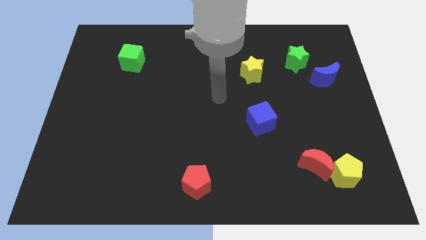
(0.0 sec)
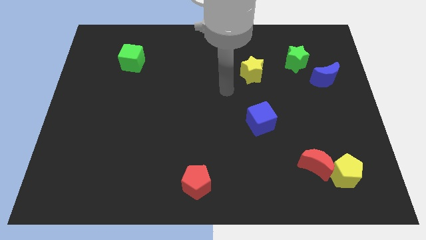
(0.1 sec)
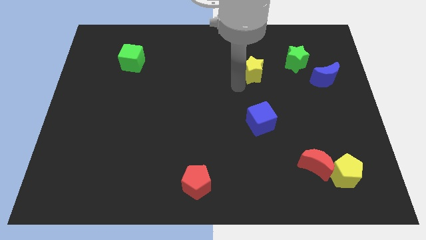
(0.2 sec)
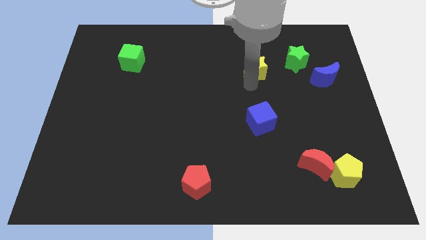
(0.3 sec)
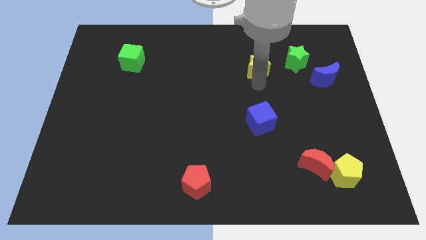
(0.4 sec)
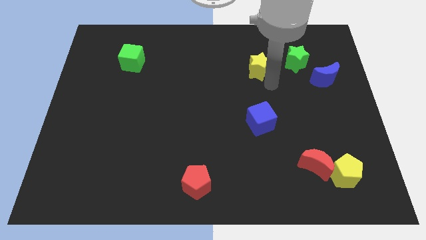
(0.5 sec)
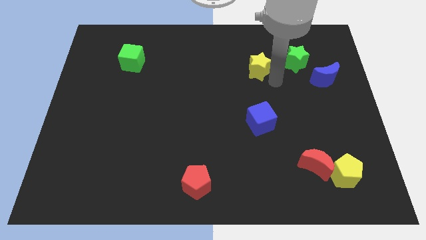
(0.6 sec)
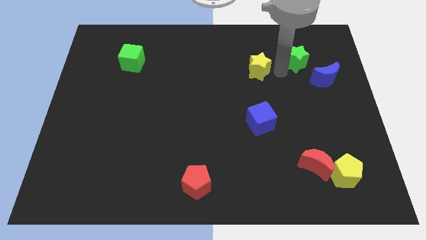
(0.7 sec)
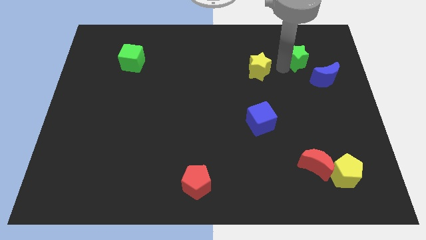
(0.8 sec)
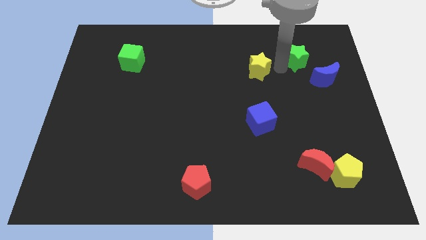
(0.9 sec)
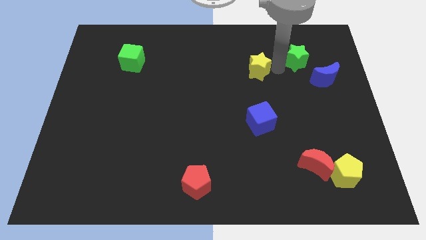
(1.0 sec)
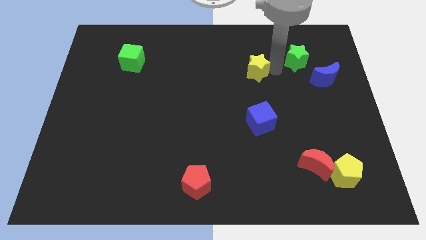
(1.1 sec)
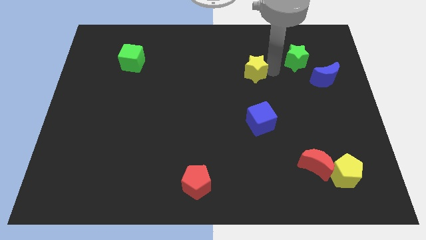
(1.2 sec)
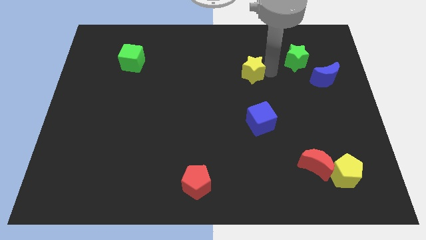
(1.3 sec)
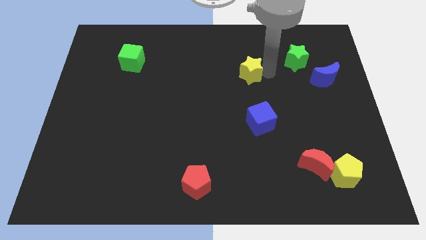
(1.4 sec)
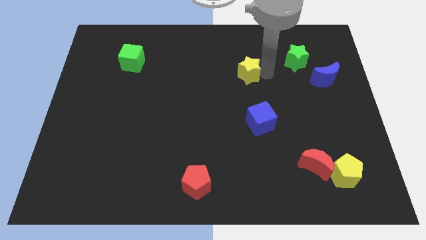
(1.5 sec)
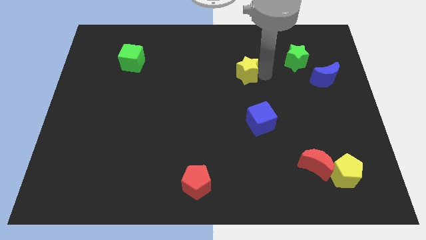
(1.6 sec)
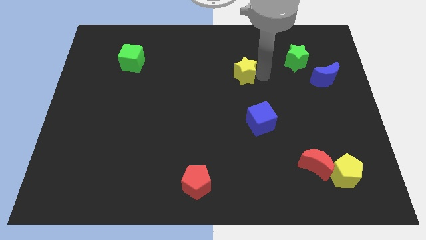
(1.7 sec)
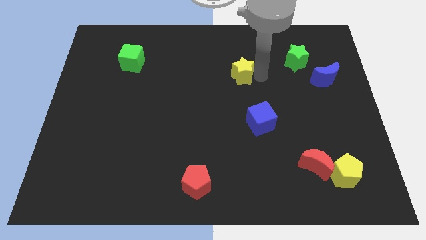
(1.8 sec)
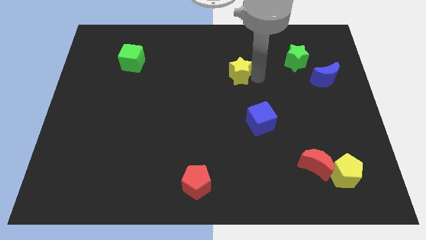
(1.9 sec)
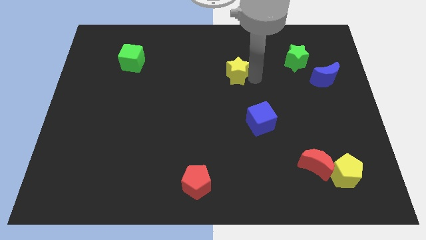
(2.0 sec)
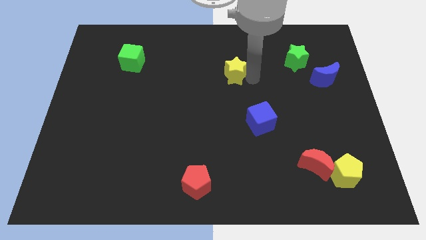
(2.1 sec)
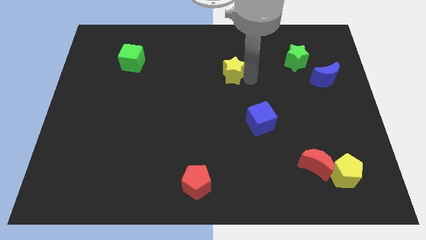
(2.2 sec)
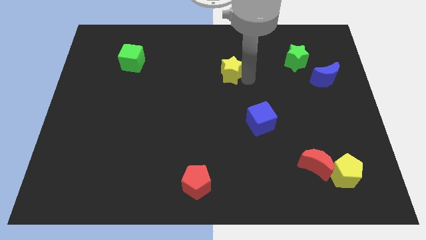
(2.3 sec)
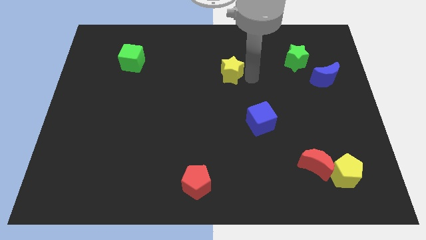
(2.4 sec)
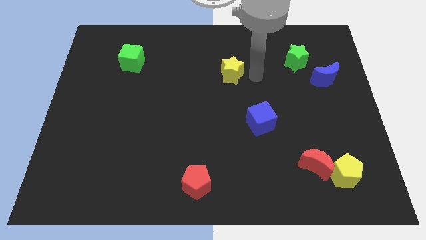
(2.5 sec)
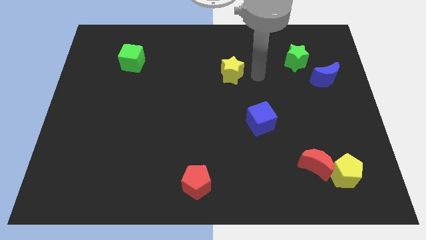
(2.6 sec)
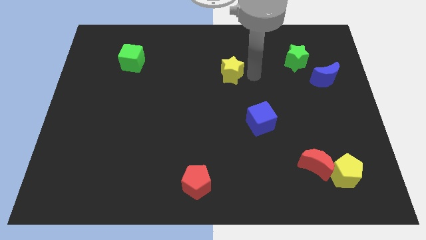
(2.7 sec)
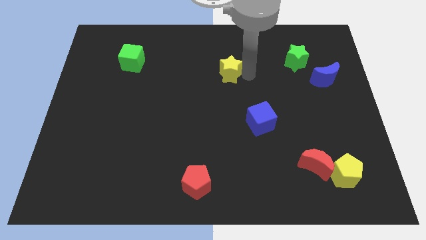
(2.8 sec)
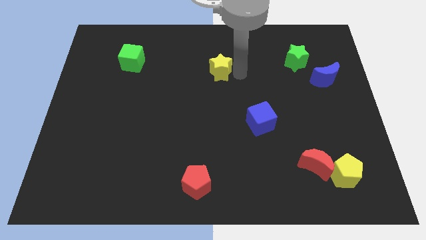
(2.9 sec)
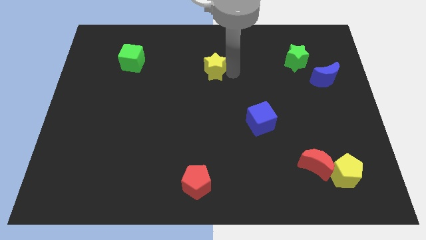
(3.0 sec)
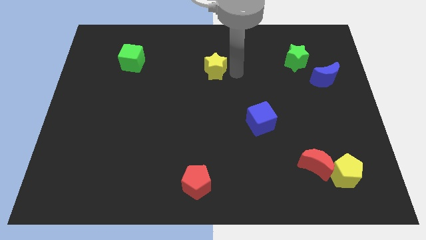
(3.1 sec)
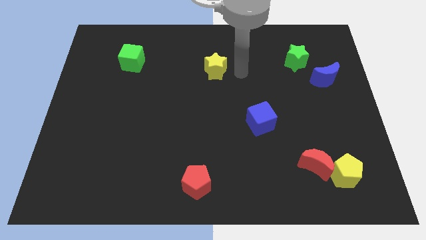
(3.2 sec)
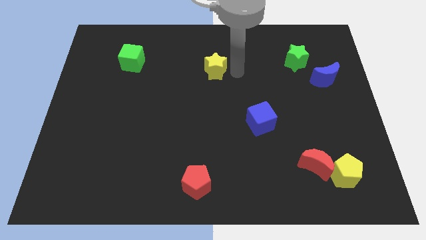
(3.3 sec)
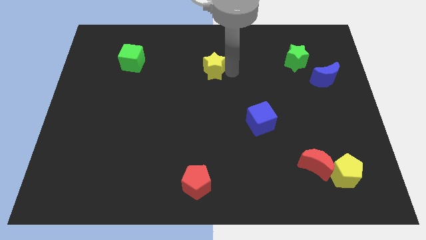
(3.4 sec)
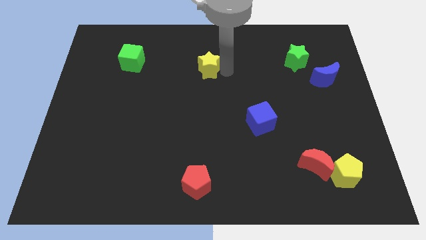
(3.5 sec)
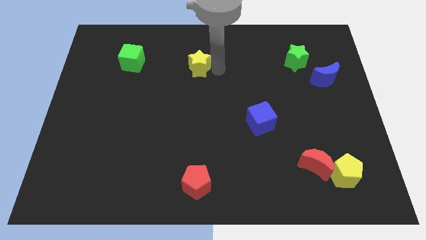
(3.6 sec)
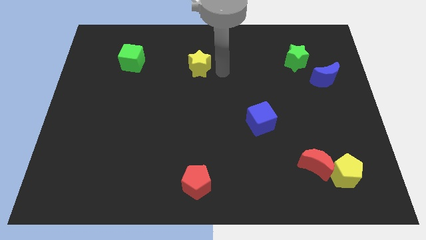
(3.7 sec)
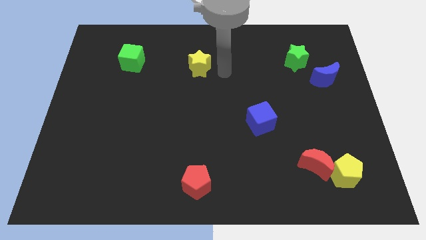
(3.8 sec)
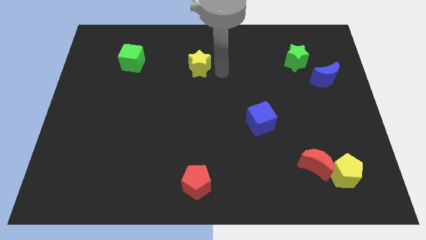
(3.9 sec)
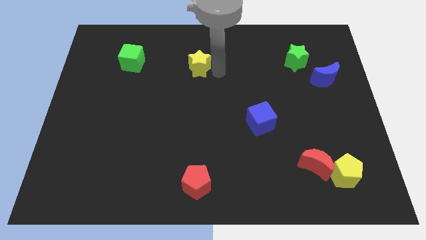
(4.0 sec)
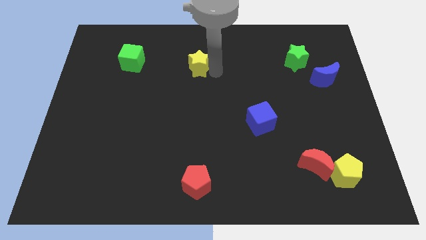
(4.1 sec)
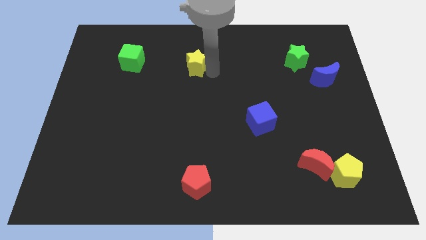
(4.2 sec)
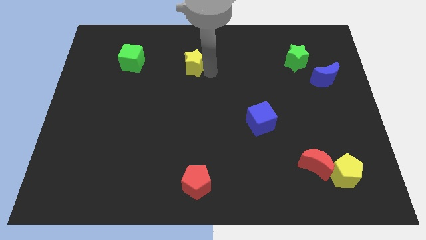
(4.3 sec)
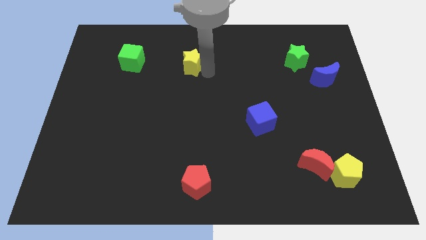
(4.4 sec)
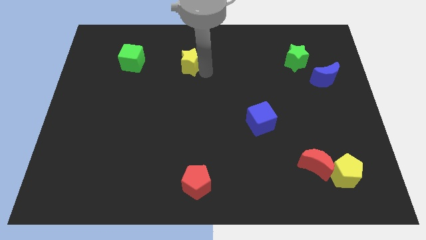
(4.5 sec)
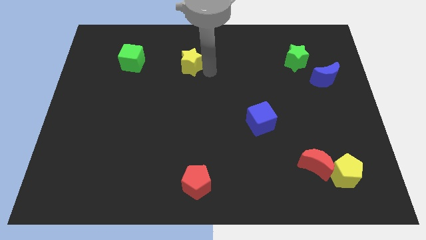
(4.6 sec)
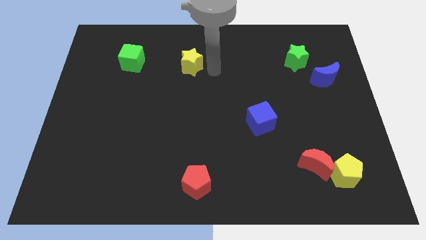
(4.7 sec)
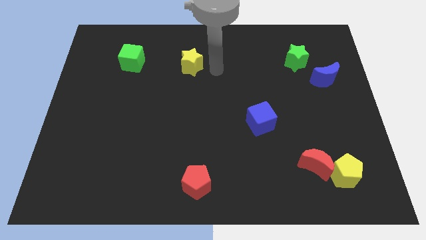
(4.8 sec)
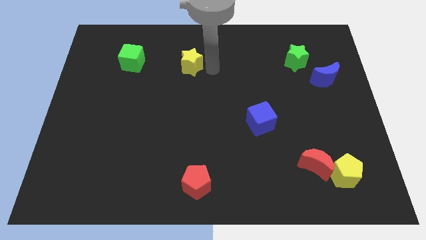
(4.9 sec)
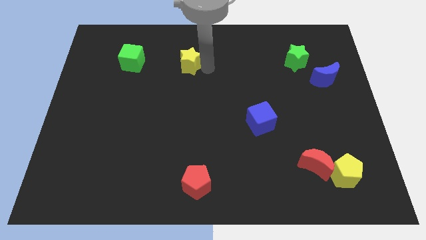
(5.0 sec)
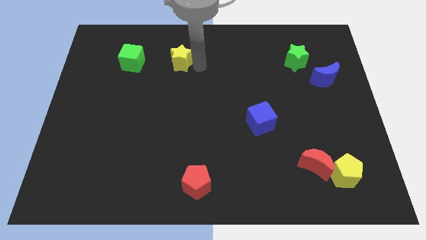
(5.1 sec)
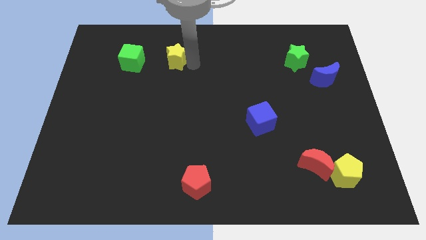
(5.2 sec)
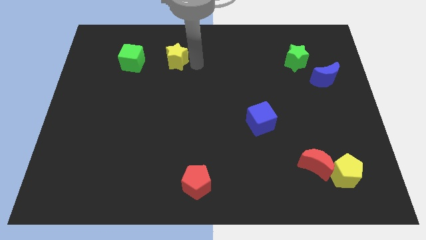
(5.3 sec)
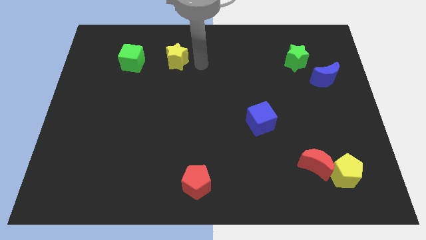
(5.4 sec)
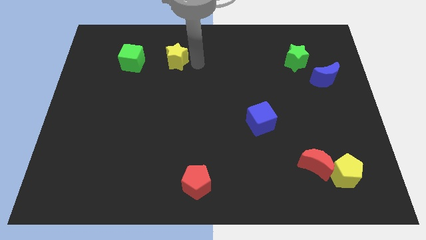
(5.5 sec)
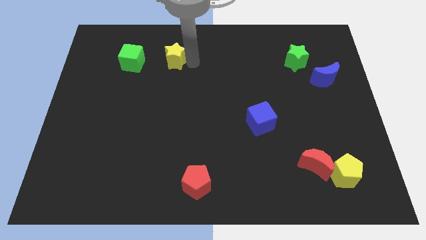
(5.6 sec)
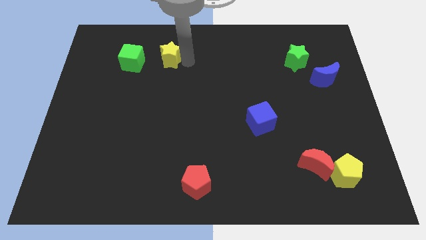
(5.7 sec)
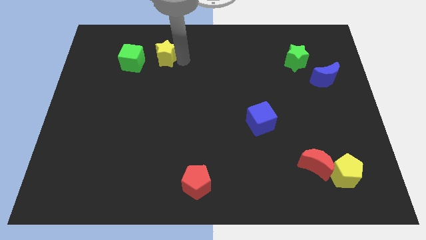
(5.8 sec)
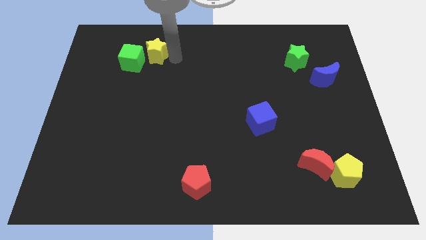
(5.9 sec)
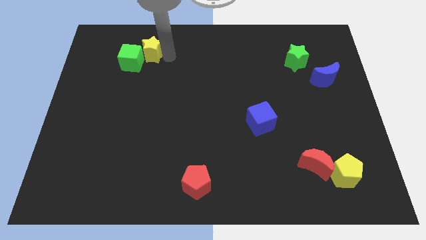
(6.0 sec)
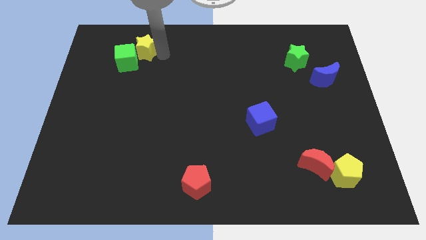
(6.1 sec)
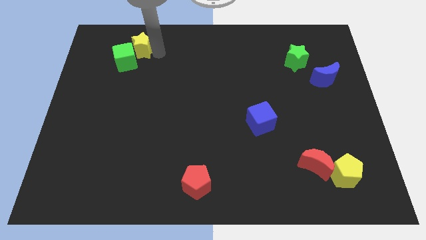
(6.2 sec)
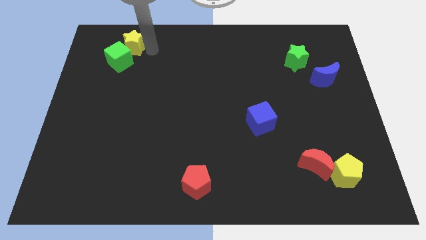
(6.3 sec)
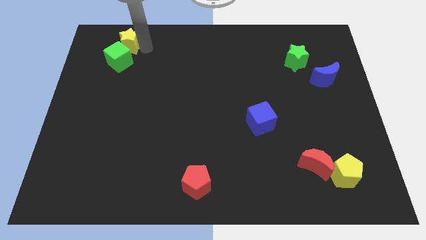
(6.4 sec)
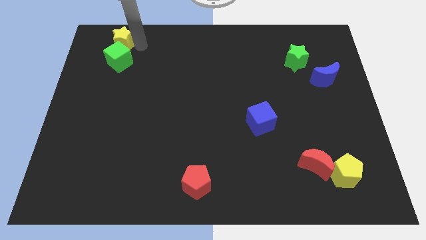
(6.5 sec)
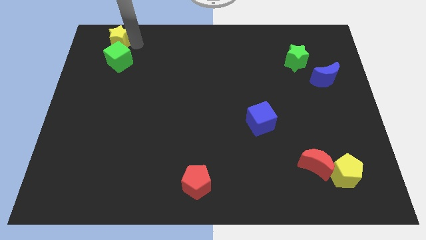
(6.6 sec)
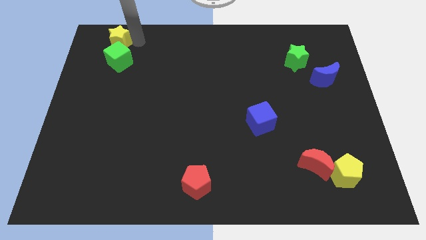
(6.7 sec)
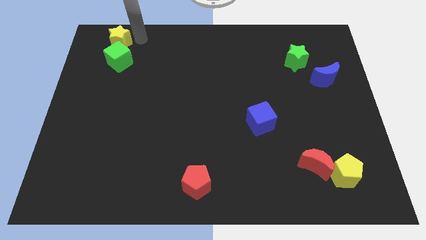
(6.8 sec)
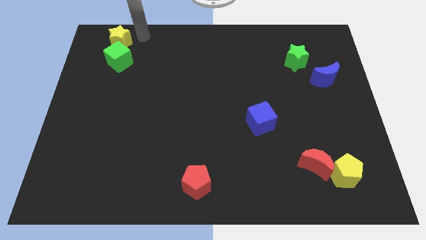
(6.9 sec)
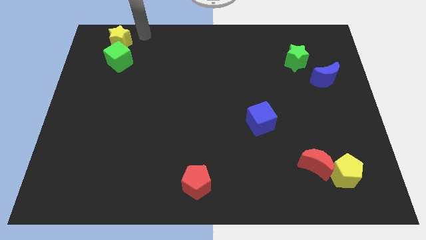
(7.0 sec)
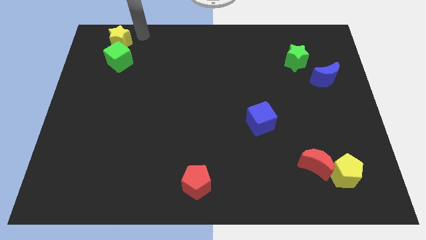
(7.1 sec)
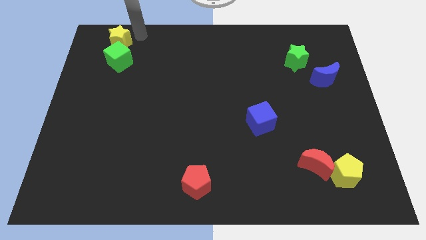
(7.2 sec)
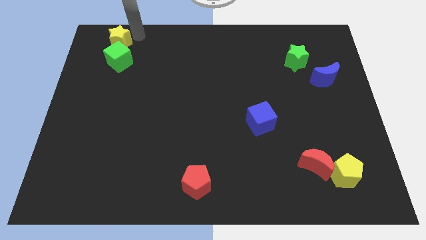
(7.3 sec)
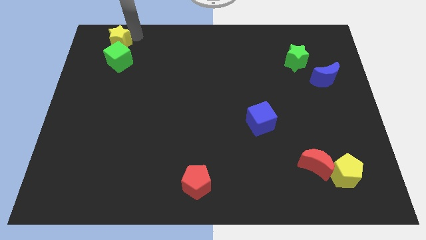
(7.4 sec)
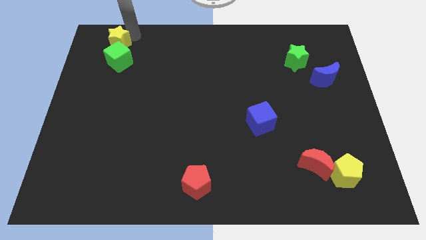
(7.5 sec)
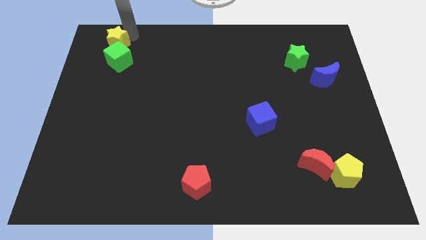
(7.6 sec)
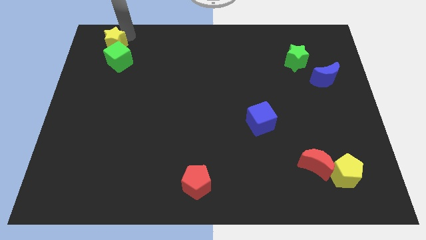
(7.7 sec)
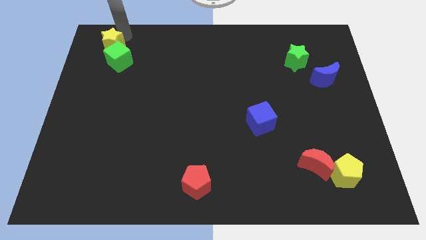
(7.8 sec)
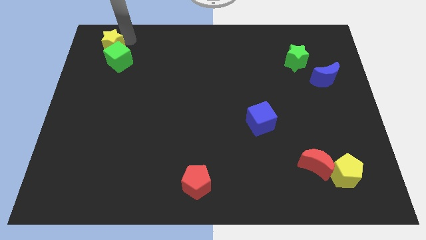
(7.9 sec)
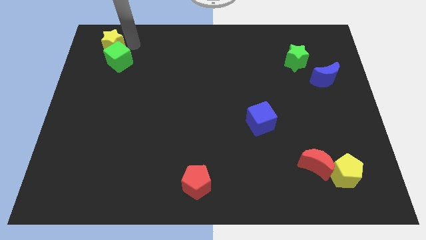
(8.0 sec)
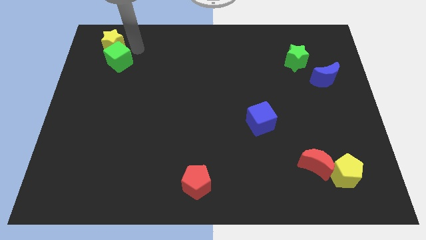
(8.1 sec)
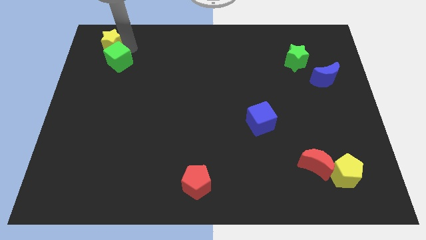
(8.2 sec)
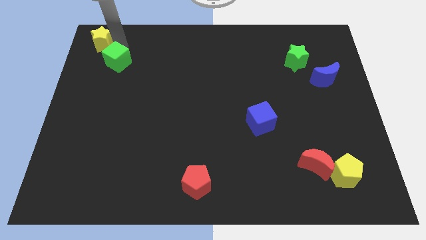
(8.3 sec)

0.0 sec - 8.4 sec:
move the yellow star to the top left
